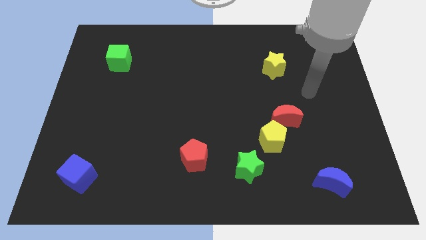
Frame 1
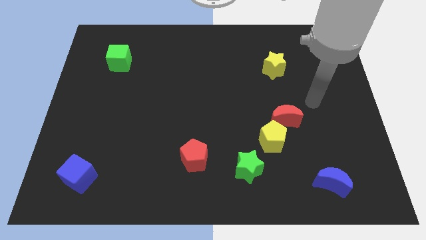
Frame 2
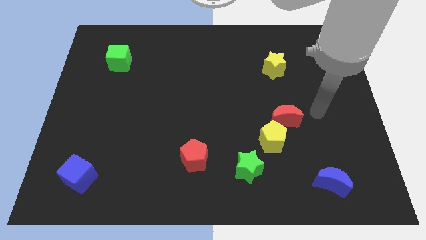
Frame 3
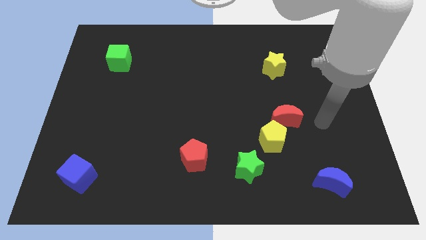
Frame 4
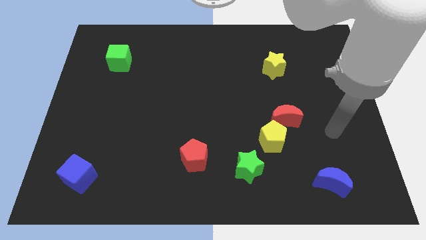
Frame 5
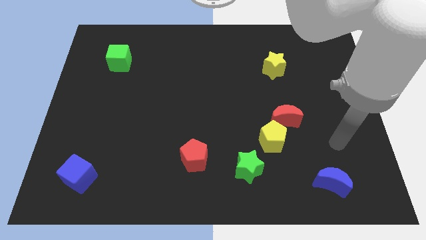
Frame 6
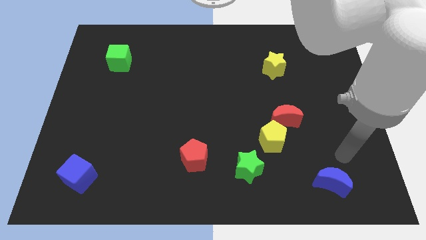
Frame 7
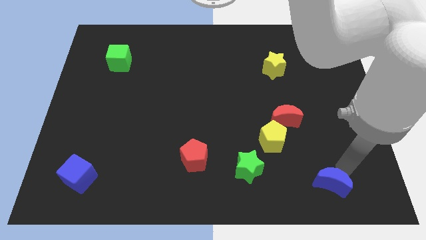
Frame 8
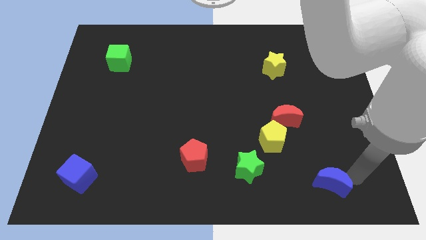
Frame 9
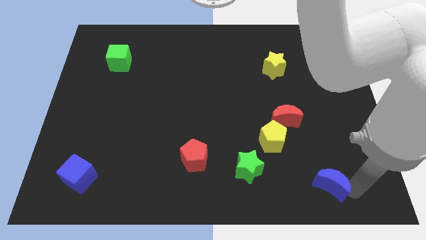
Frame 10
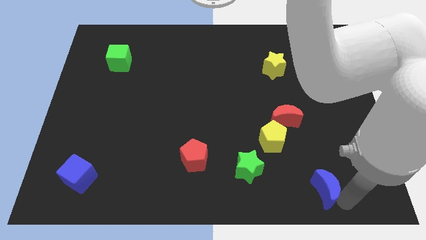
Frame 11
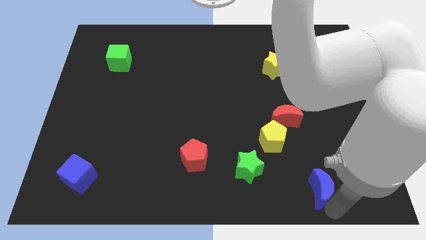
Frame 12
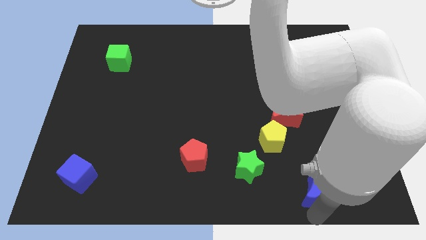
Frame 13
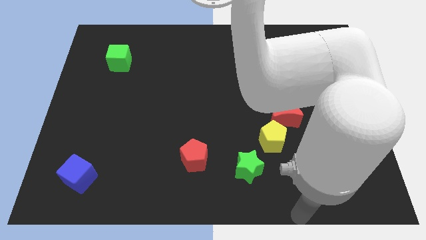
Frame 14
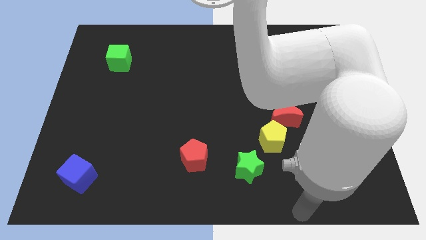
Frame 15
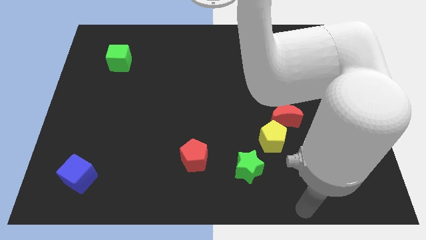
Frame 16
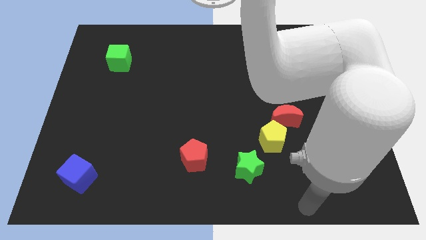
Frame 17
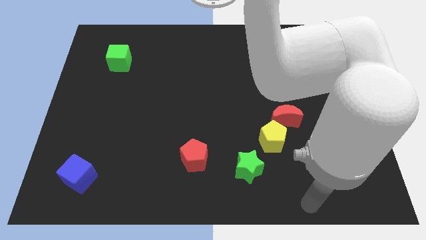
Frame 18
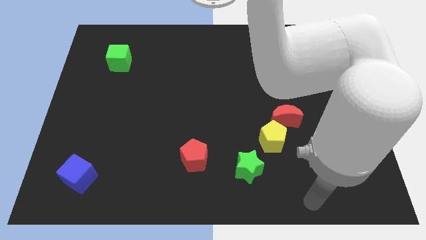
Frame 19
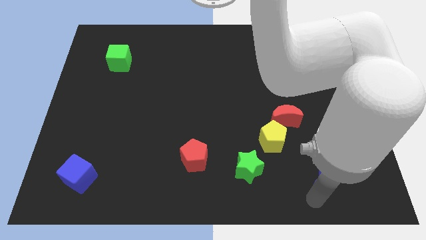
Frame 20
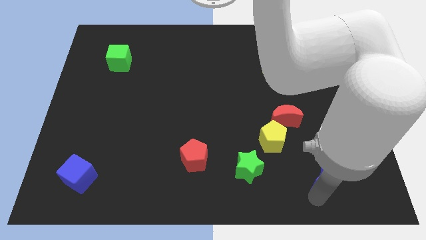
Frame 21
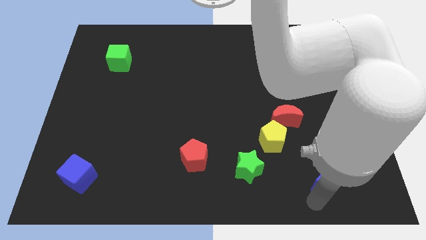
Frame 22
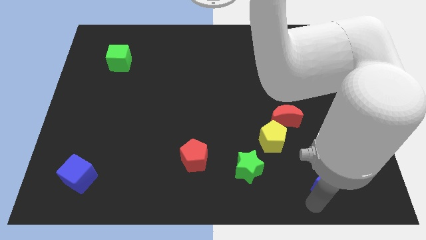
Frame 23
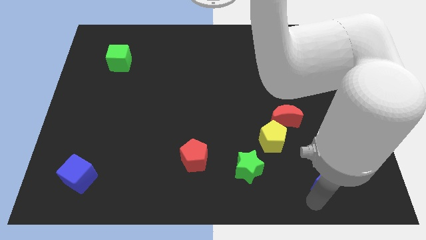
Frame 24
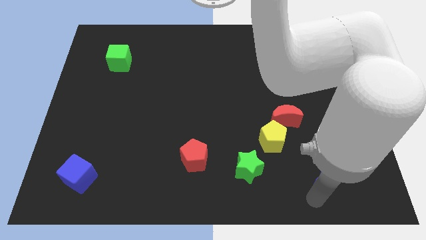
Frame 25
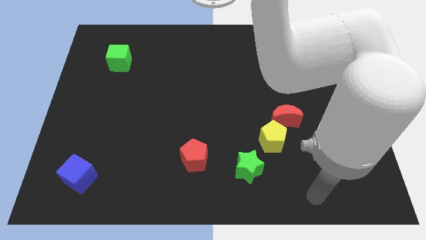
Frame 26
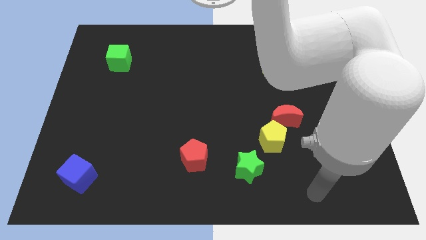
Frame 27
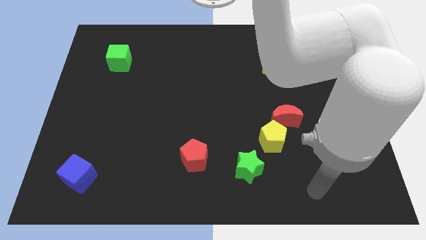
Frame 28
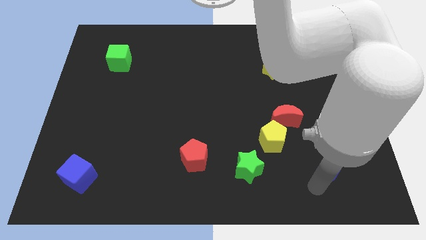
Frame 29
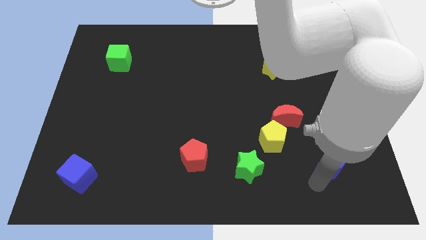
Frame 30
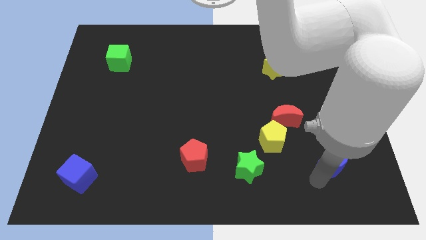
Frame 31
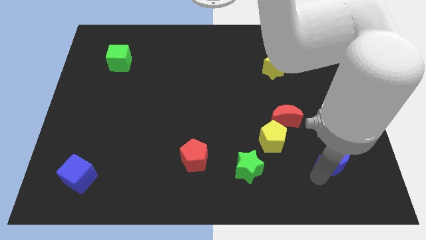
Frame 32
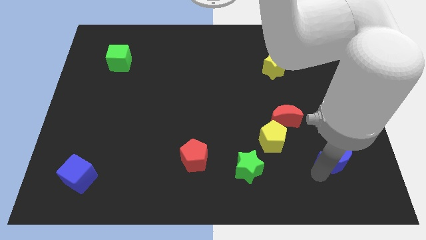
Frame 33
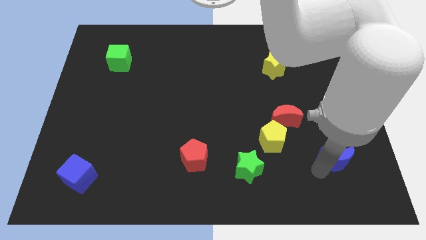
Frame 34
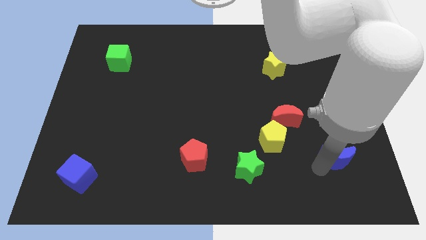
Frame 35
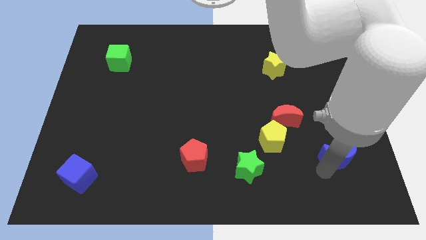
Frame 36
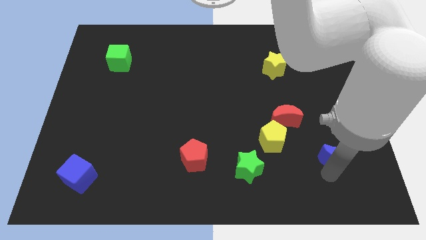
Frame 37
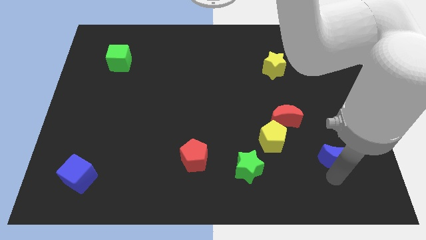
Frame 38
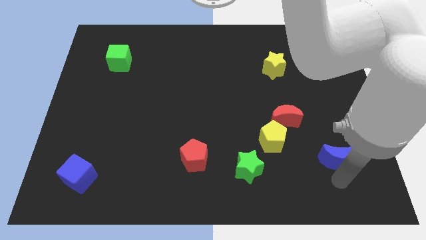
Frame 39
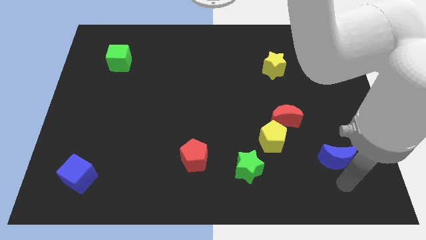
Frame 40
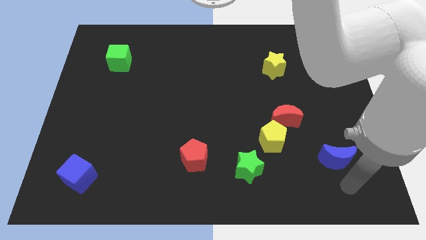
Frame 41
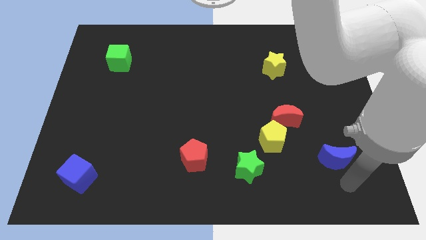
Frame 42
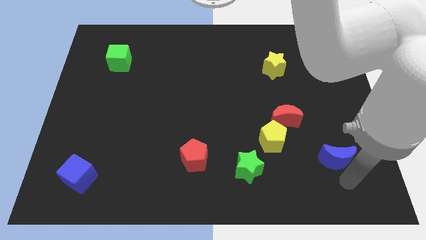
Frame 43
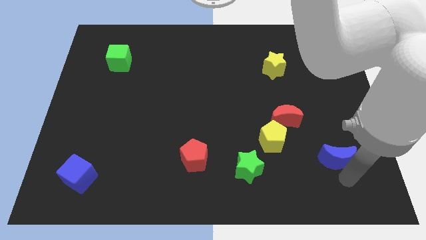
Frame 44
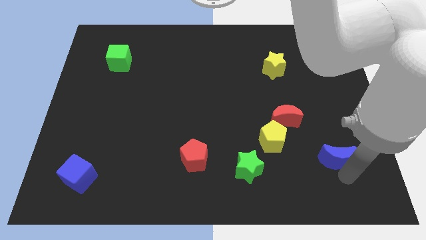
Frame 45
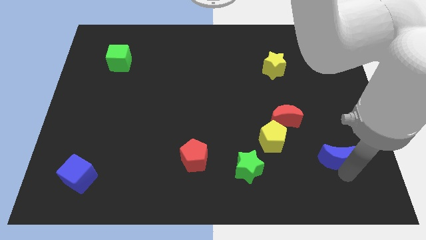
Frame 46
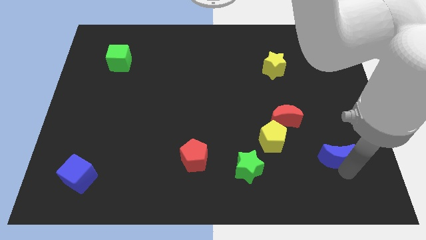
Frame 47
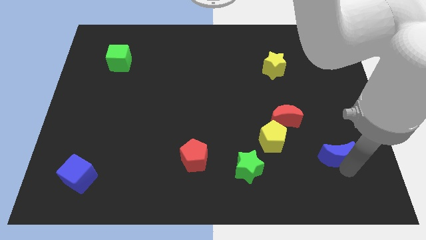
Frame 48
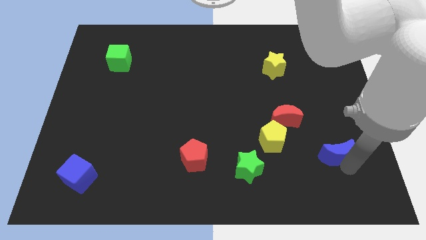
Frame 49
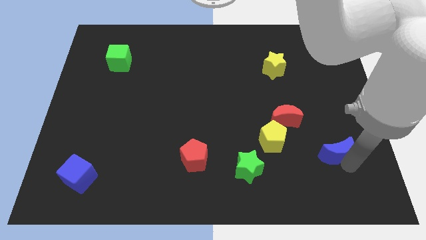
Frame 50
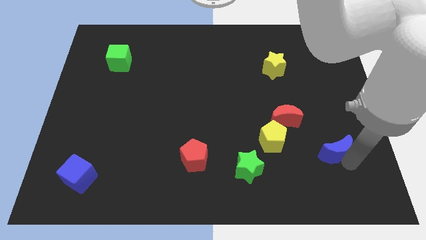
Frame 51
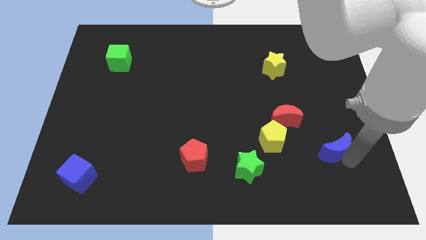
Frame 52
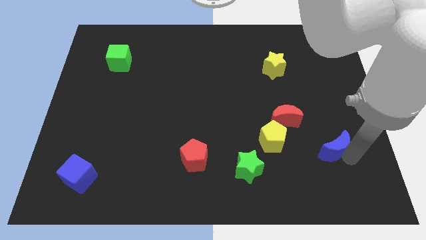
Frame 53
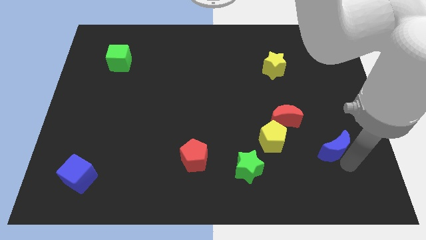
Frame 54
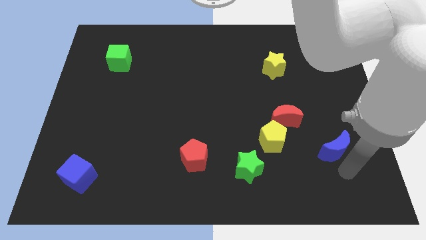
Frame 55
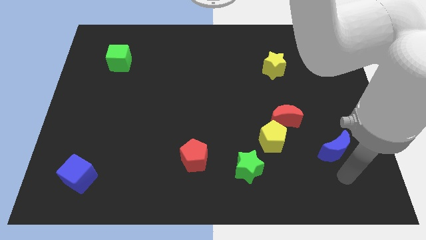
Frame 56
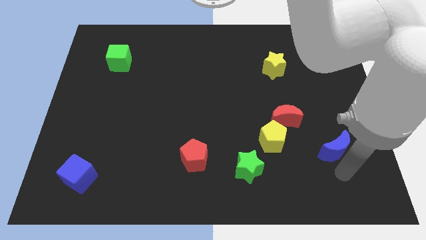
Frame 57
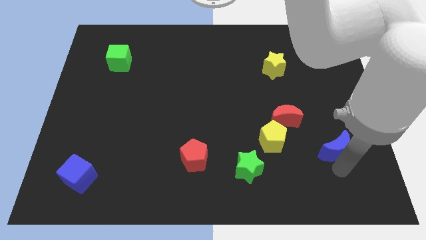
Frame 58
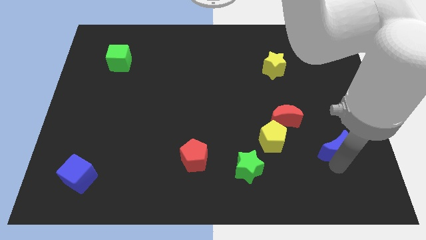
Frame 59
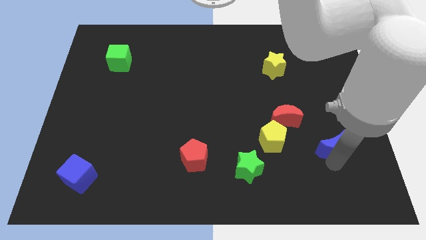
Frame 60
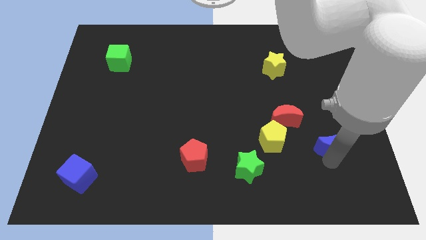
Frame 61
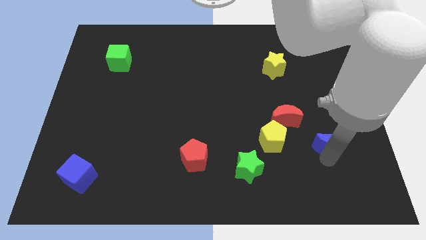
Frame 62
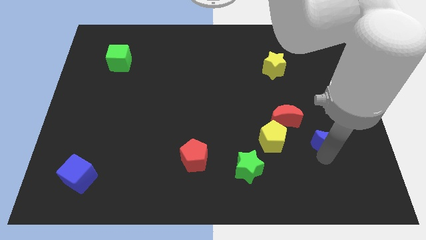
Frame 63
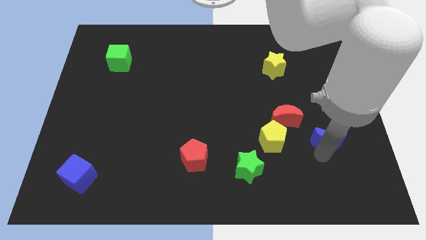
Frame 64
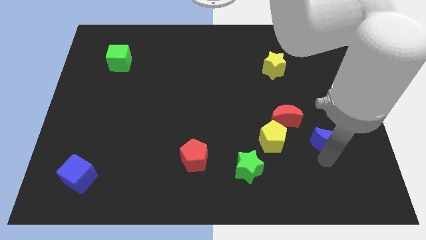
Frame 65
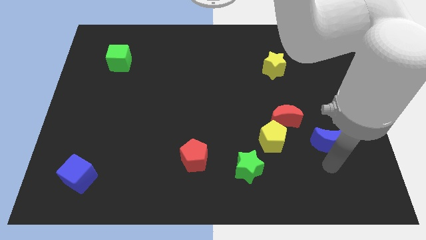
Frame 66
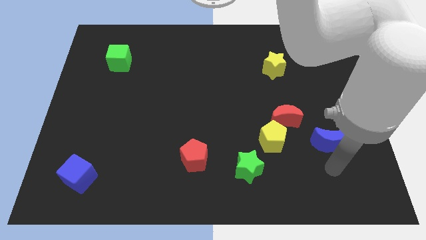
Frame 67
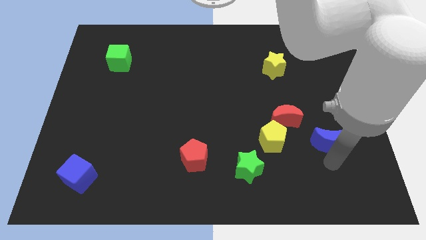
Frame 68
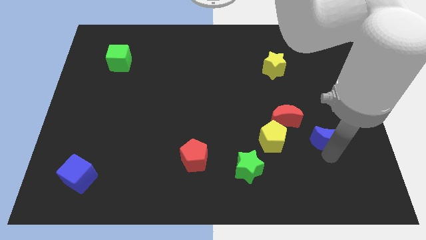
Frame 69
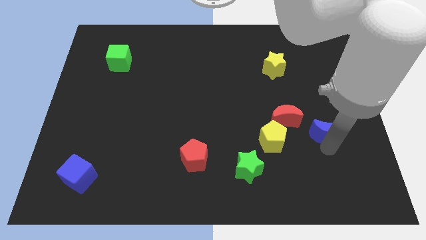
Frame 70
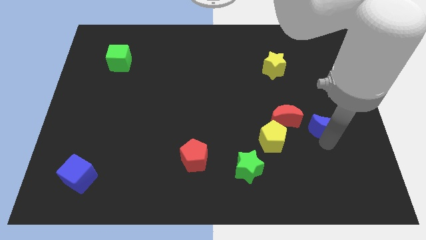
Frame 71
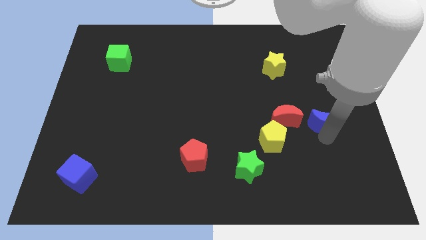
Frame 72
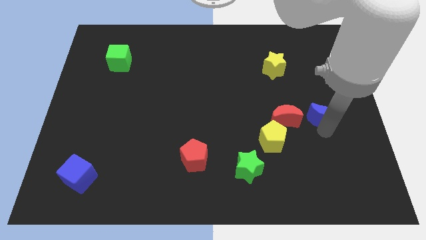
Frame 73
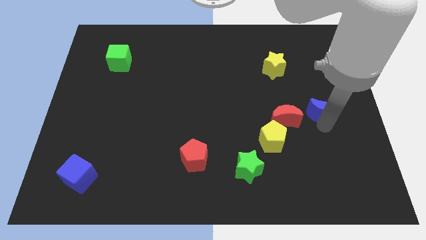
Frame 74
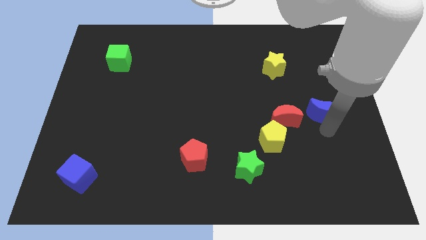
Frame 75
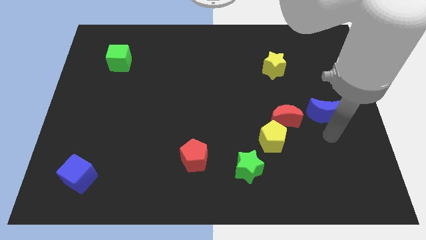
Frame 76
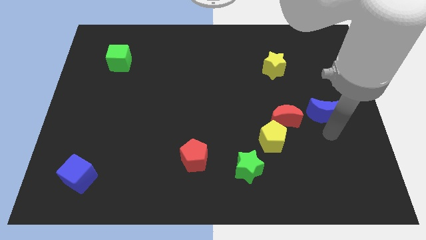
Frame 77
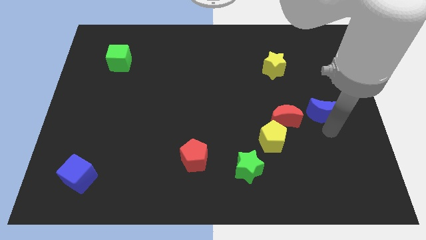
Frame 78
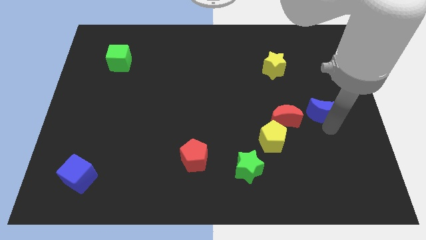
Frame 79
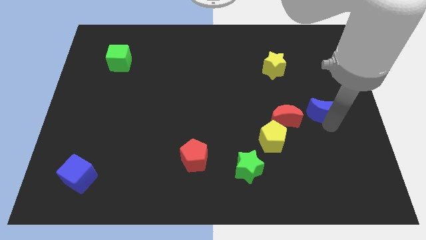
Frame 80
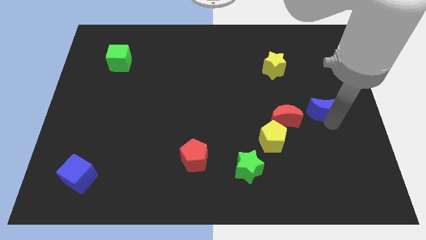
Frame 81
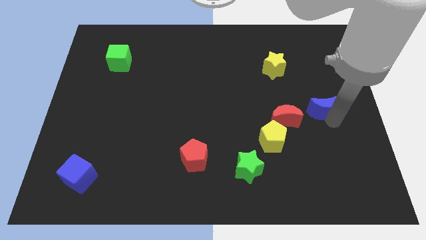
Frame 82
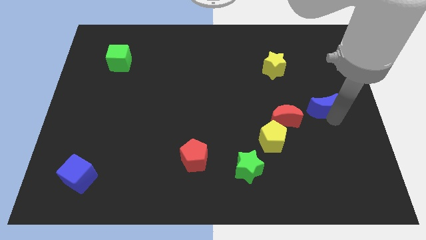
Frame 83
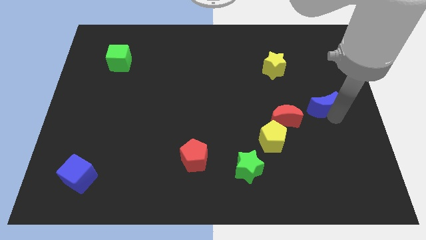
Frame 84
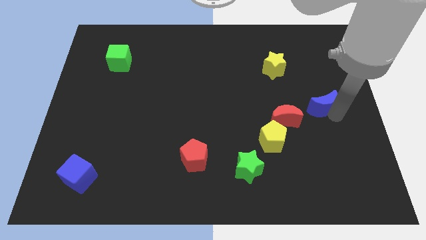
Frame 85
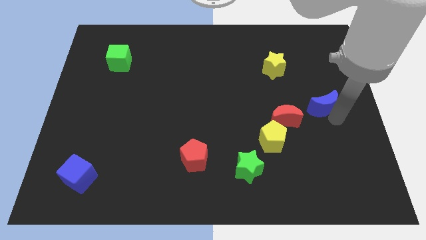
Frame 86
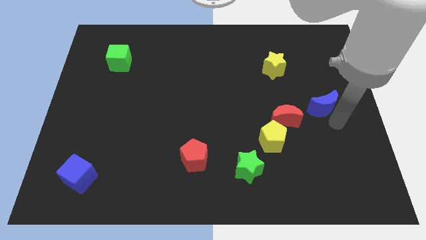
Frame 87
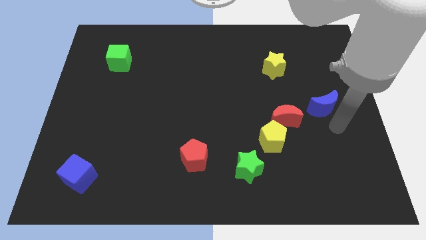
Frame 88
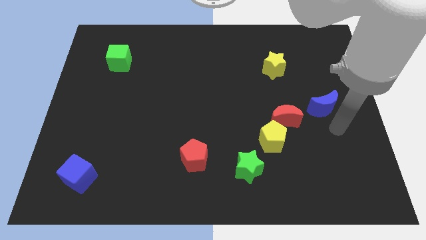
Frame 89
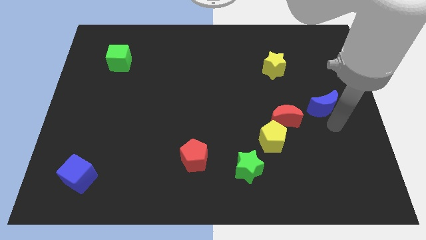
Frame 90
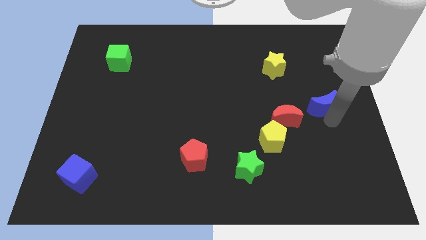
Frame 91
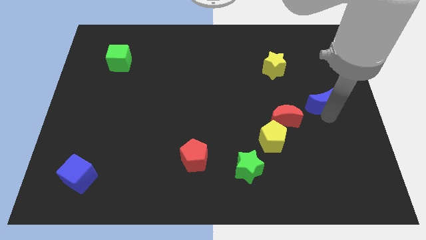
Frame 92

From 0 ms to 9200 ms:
slide the blue moon upwards
